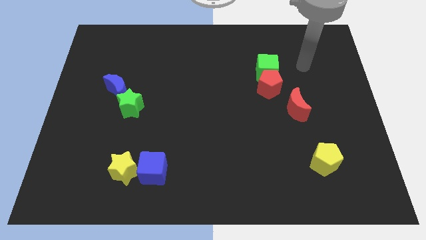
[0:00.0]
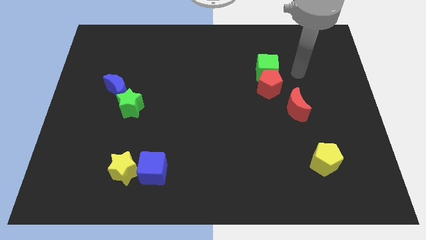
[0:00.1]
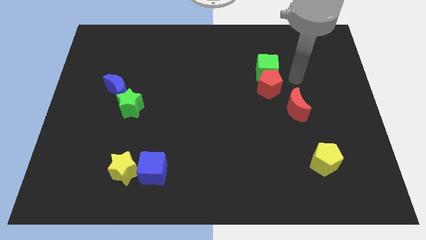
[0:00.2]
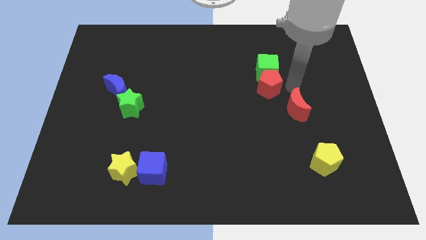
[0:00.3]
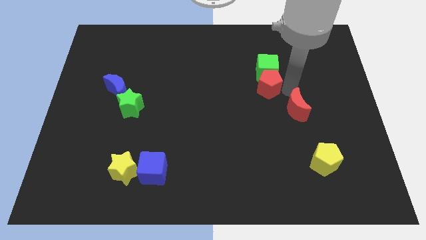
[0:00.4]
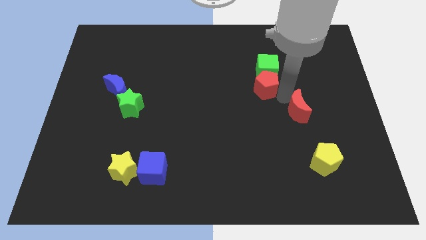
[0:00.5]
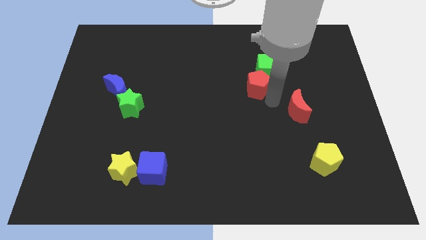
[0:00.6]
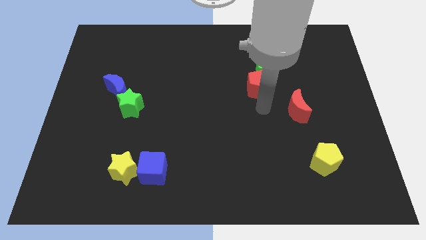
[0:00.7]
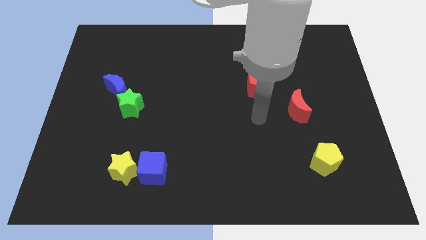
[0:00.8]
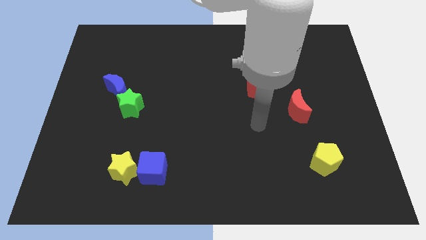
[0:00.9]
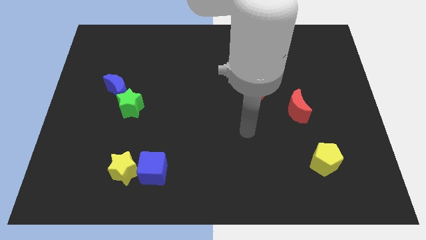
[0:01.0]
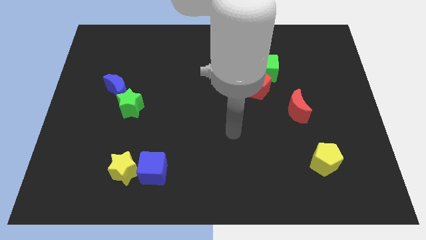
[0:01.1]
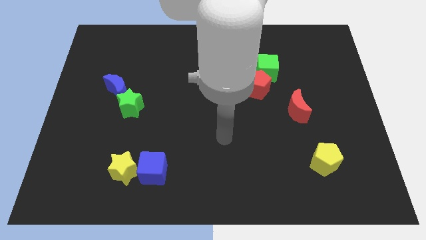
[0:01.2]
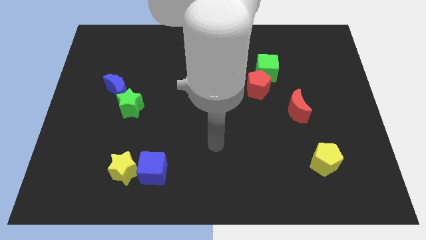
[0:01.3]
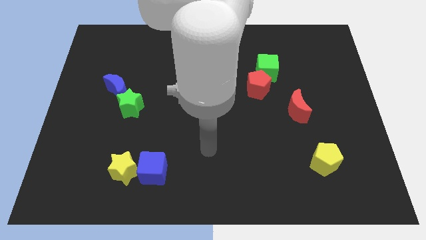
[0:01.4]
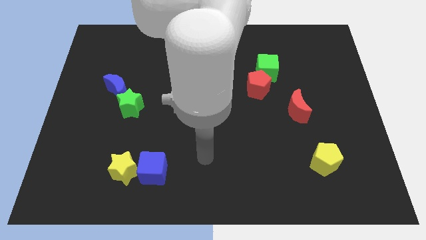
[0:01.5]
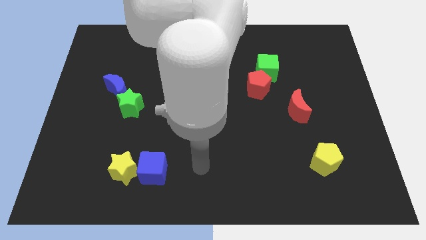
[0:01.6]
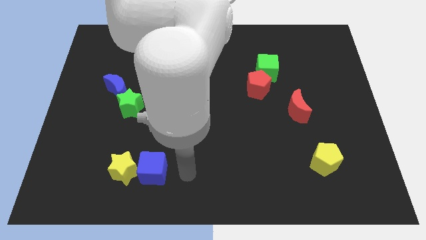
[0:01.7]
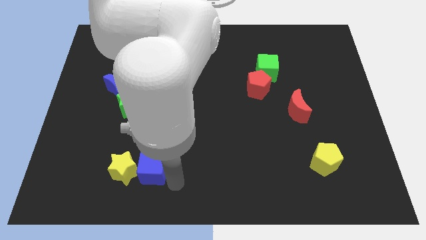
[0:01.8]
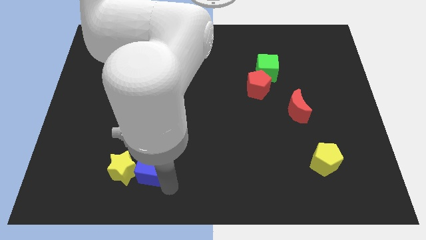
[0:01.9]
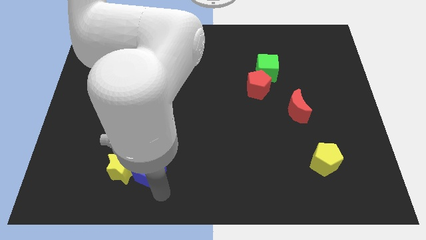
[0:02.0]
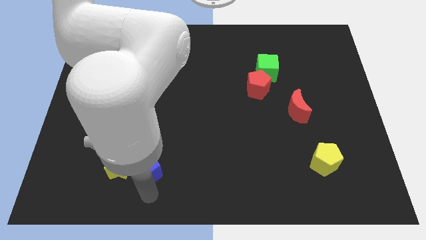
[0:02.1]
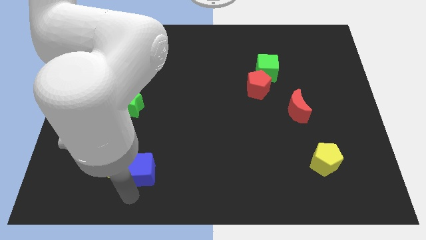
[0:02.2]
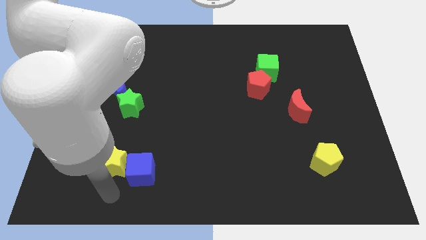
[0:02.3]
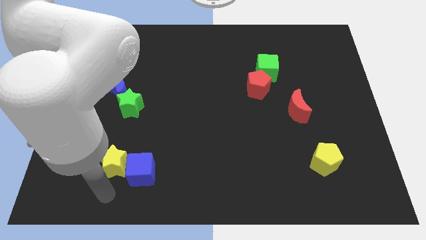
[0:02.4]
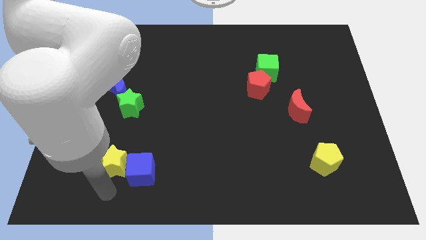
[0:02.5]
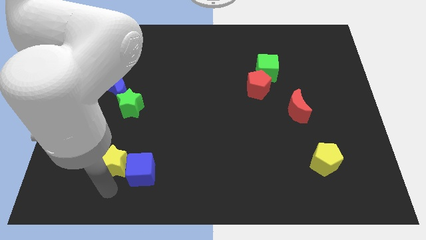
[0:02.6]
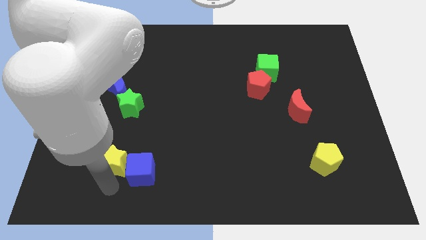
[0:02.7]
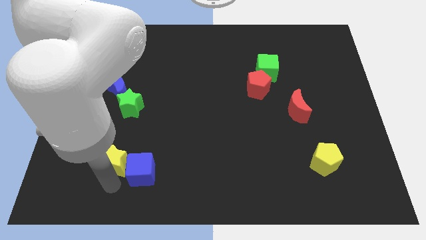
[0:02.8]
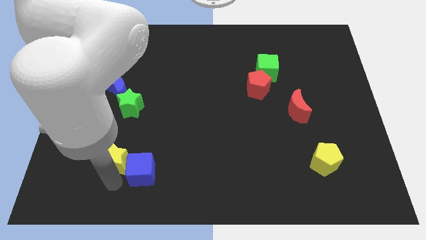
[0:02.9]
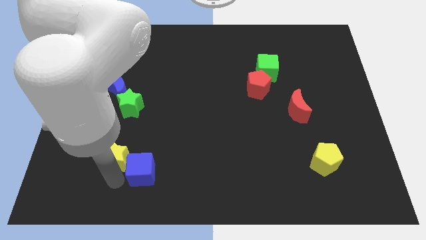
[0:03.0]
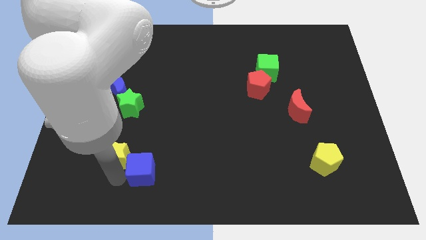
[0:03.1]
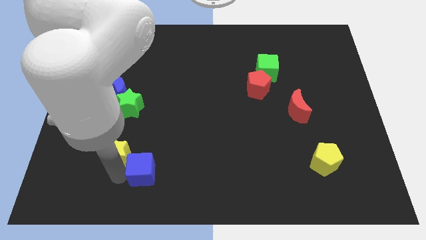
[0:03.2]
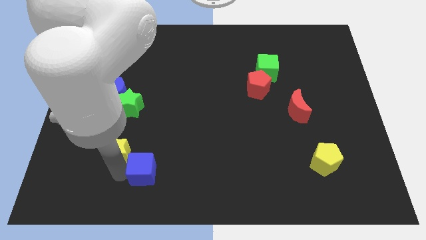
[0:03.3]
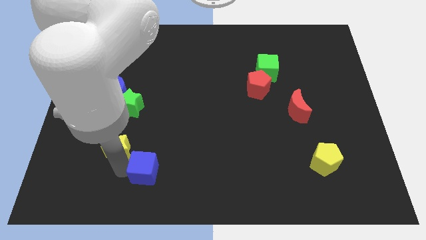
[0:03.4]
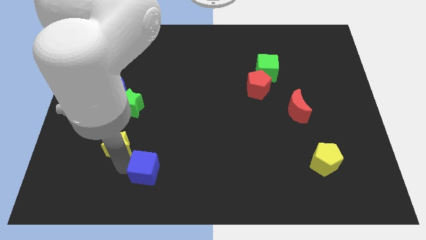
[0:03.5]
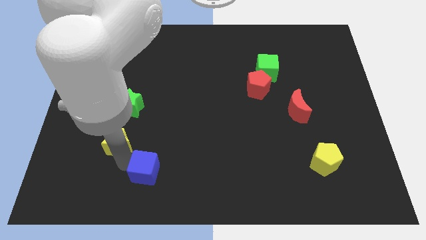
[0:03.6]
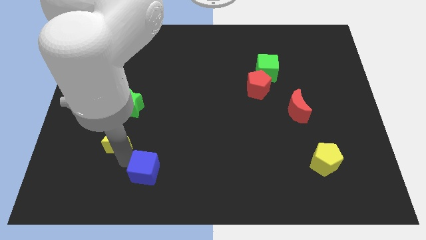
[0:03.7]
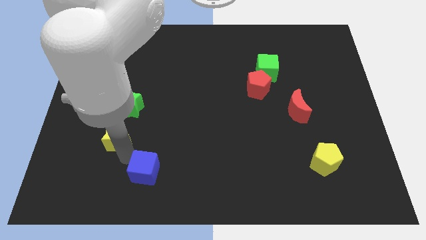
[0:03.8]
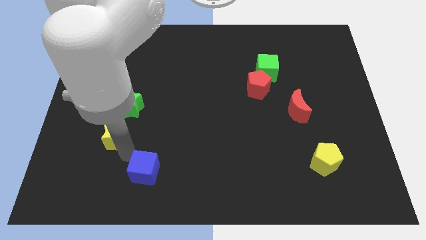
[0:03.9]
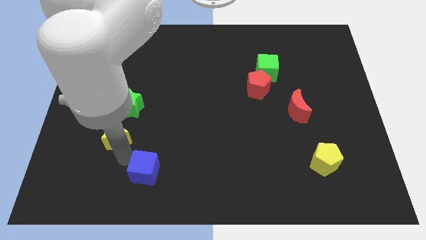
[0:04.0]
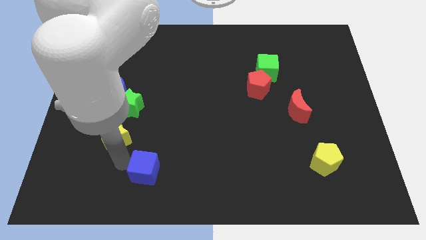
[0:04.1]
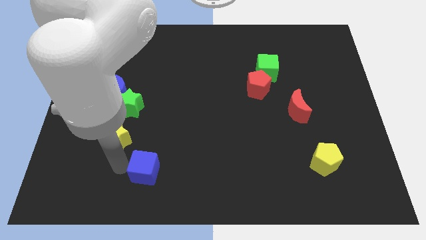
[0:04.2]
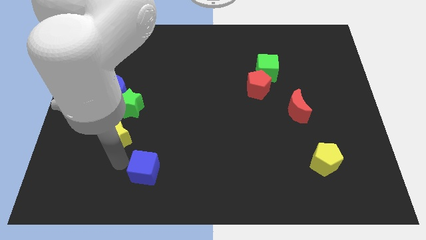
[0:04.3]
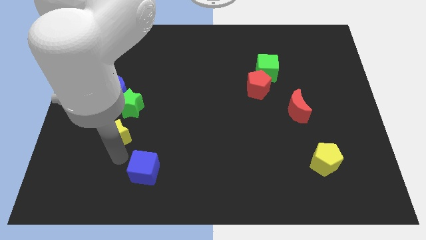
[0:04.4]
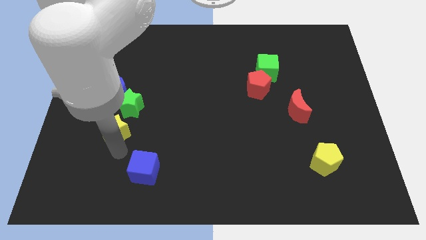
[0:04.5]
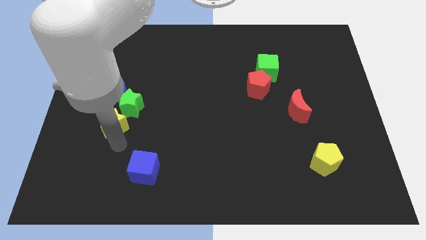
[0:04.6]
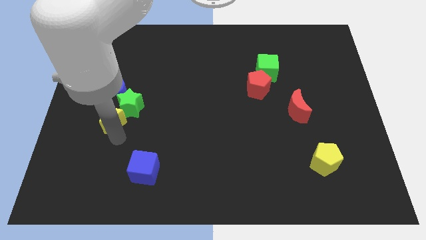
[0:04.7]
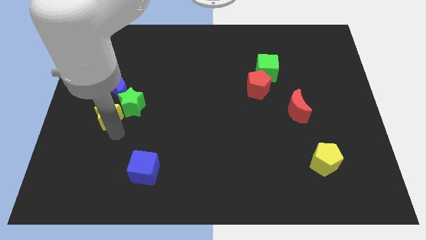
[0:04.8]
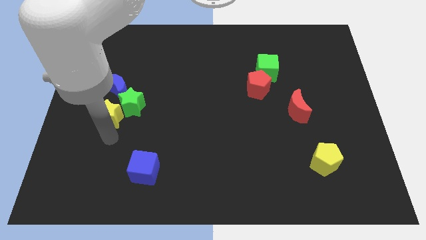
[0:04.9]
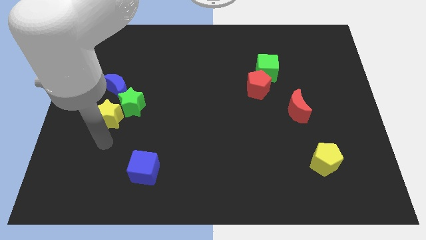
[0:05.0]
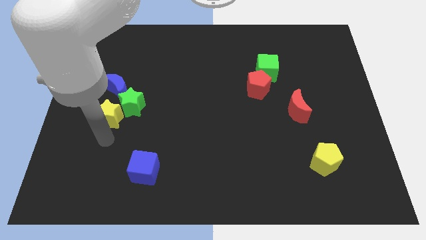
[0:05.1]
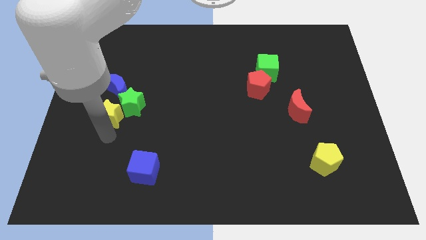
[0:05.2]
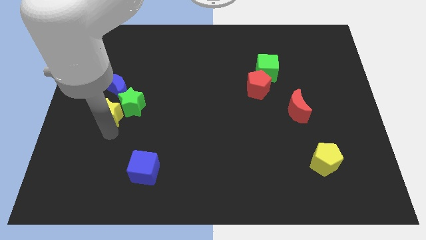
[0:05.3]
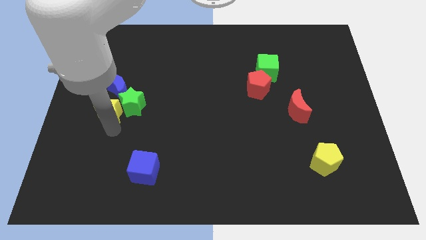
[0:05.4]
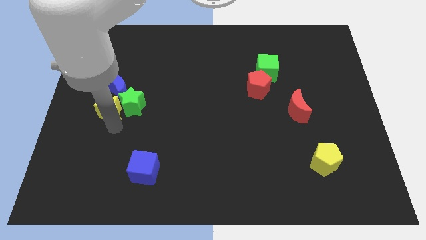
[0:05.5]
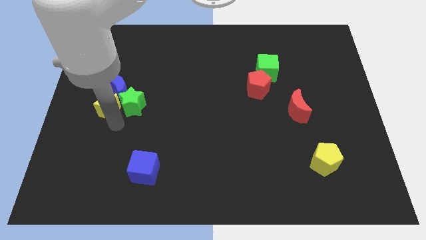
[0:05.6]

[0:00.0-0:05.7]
slide the yellow star close to the blue moon

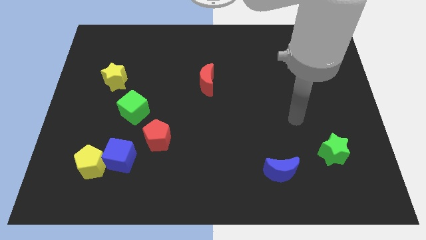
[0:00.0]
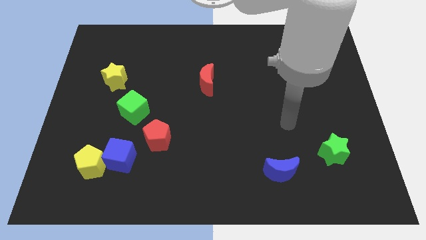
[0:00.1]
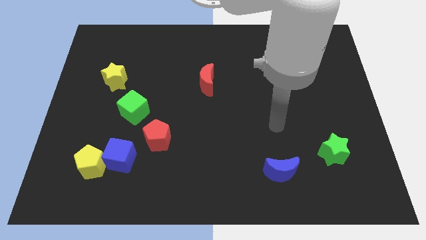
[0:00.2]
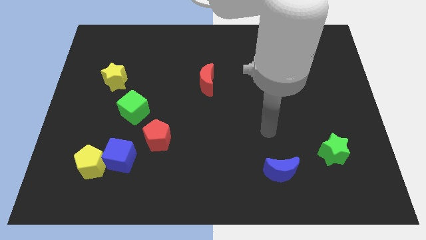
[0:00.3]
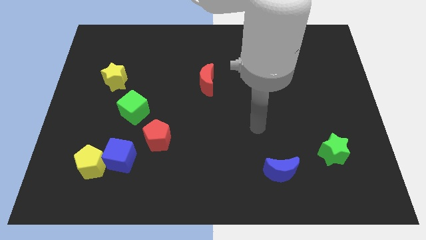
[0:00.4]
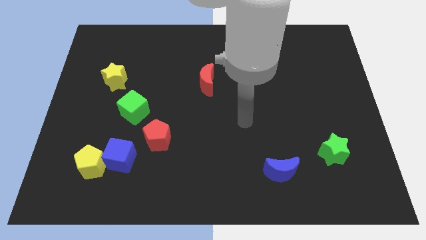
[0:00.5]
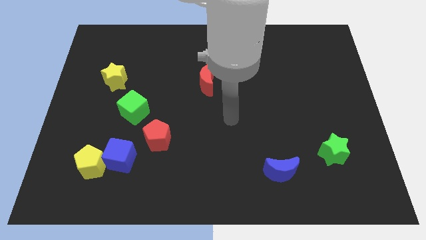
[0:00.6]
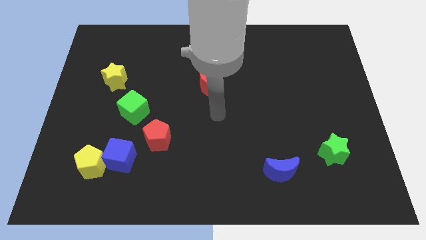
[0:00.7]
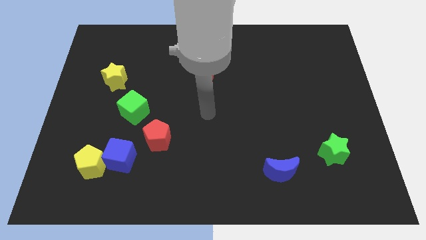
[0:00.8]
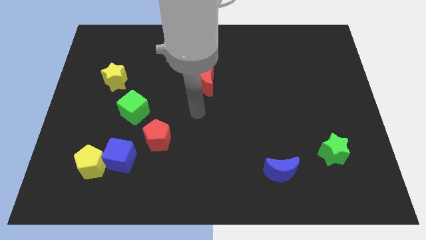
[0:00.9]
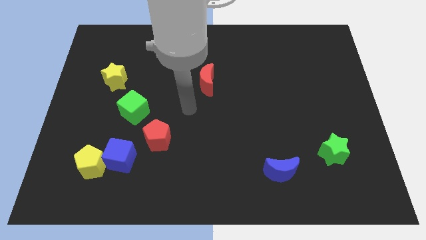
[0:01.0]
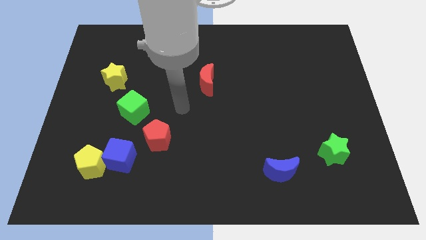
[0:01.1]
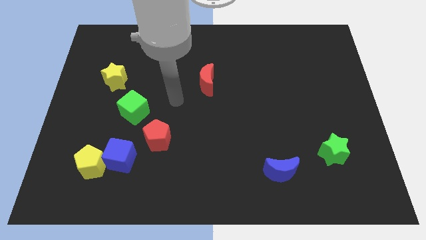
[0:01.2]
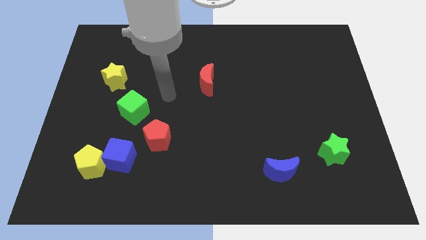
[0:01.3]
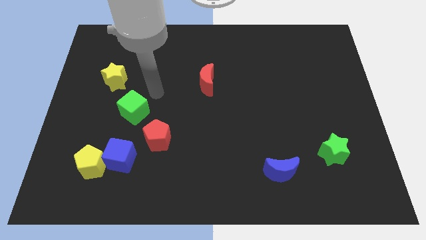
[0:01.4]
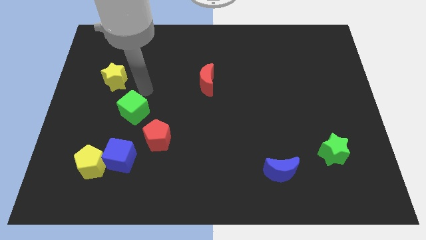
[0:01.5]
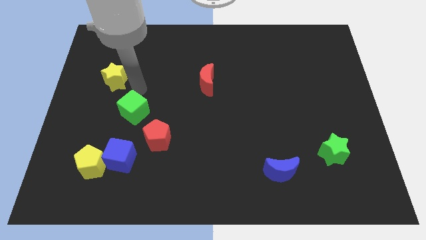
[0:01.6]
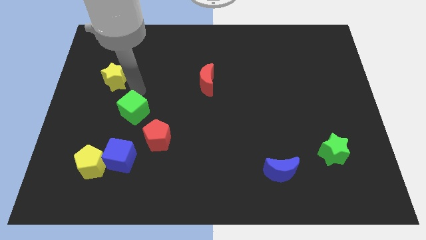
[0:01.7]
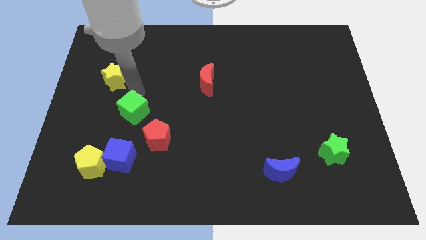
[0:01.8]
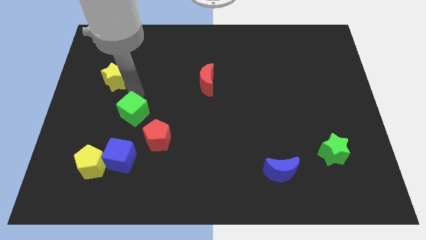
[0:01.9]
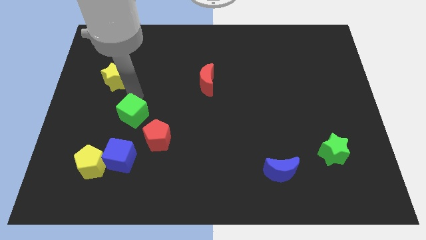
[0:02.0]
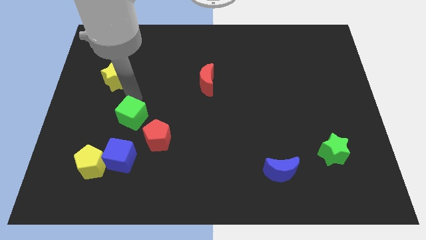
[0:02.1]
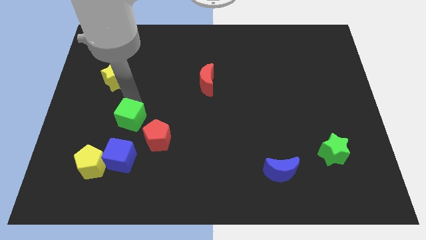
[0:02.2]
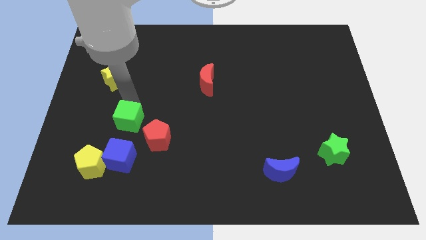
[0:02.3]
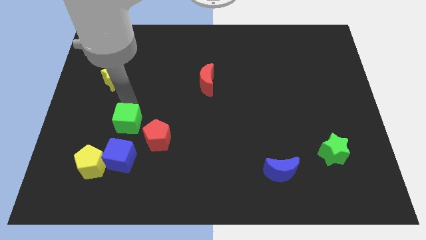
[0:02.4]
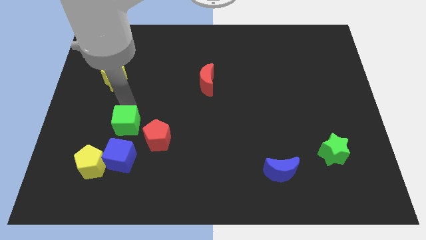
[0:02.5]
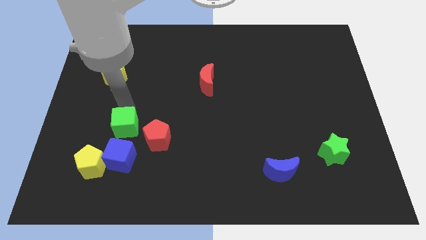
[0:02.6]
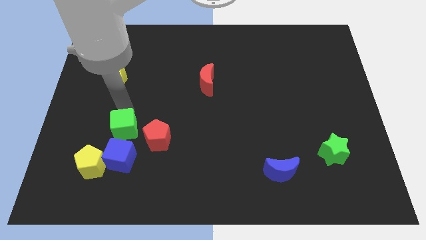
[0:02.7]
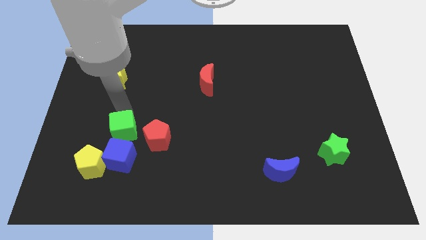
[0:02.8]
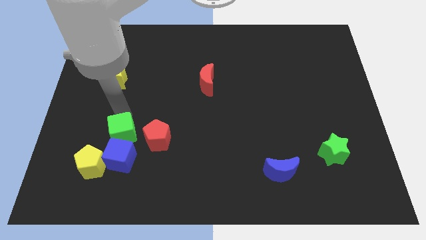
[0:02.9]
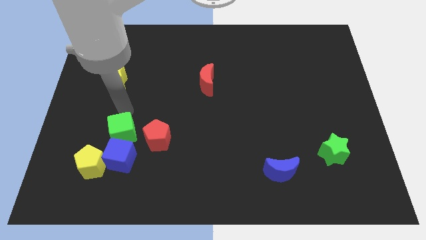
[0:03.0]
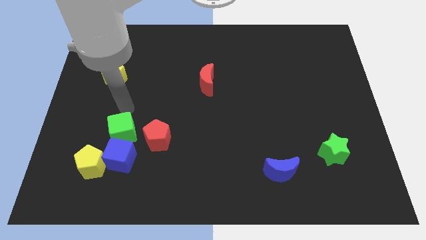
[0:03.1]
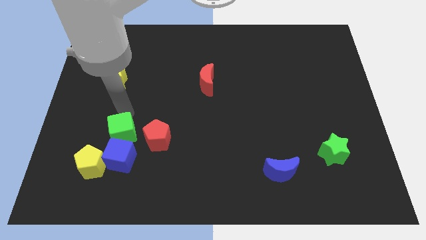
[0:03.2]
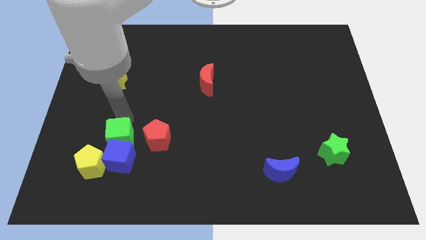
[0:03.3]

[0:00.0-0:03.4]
move the green cube to the blue cube
